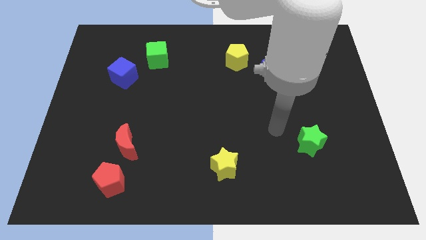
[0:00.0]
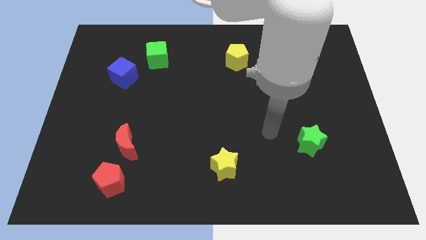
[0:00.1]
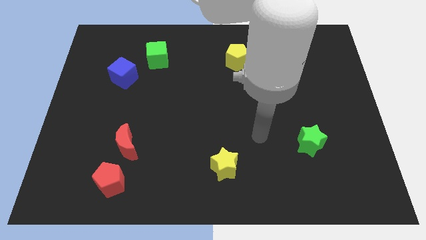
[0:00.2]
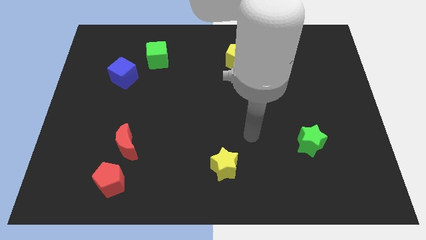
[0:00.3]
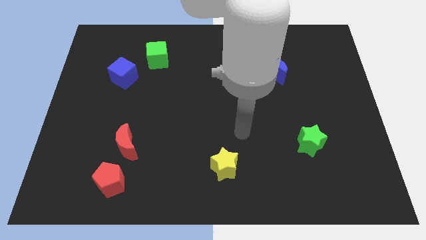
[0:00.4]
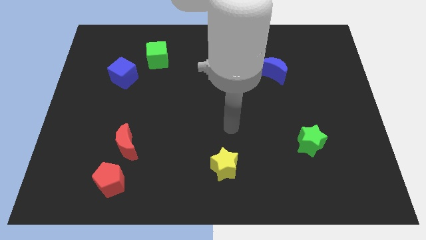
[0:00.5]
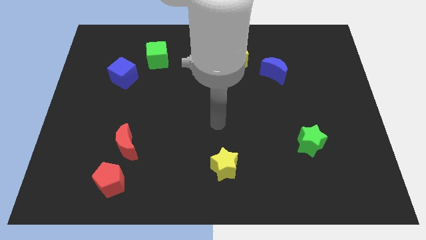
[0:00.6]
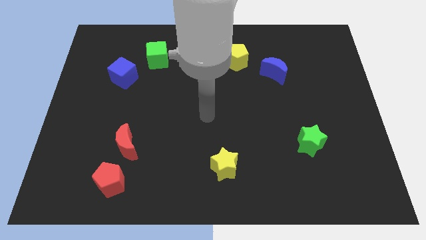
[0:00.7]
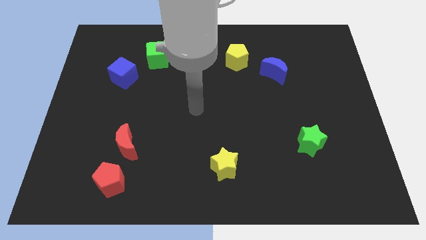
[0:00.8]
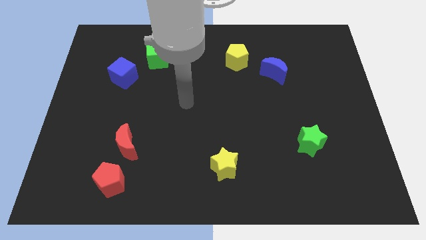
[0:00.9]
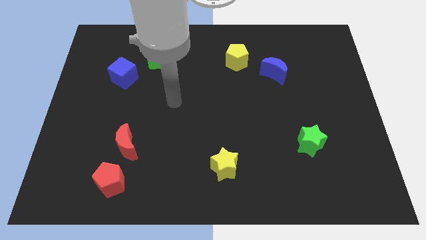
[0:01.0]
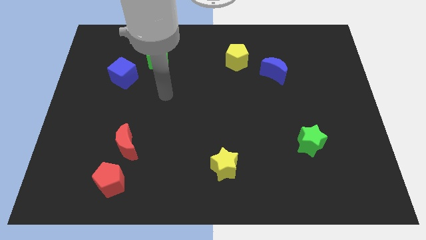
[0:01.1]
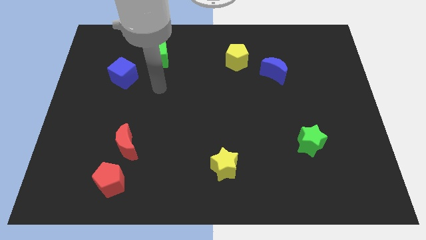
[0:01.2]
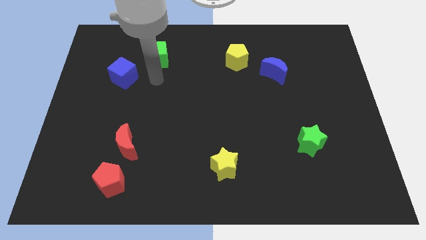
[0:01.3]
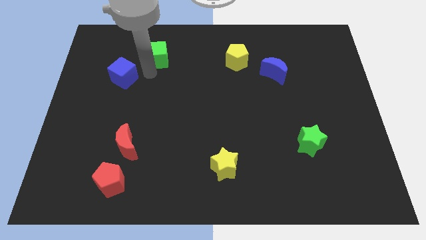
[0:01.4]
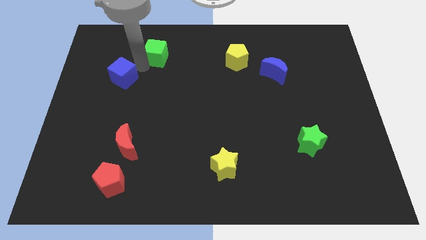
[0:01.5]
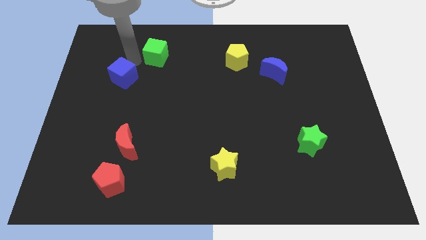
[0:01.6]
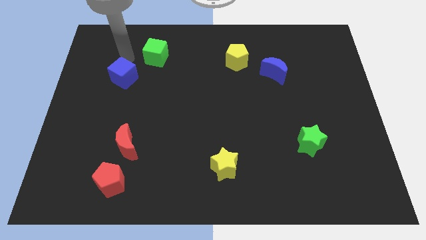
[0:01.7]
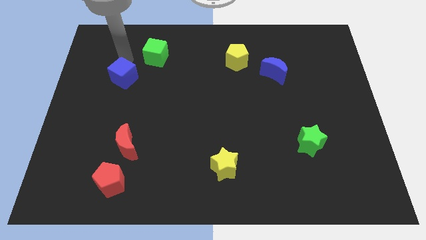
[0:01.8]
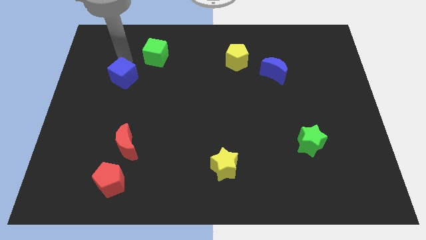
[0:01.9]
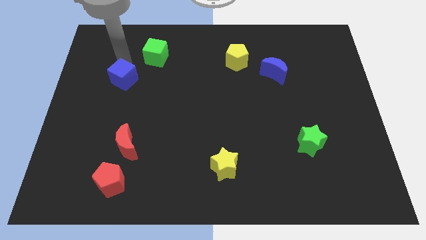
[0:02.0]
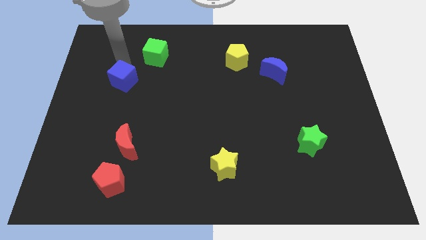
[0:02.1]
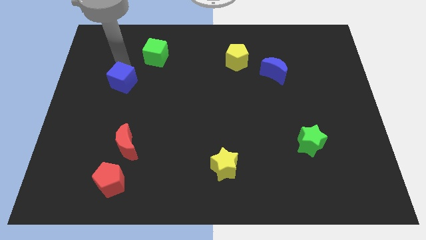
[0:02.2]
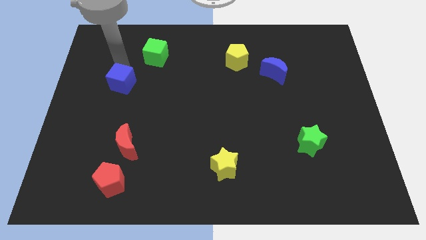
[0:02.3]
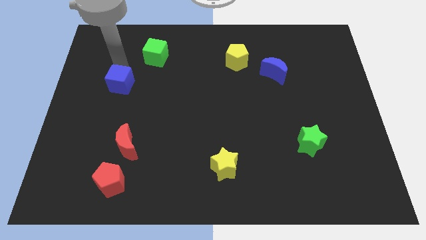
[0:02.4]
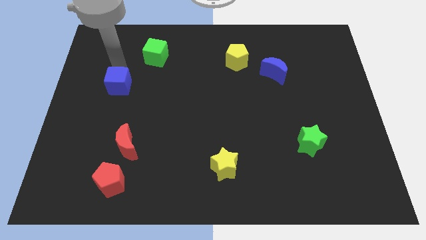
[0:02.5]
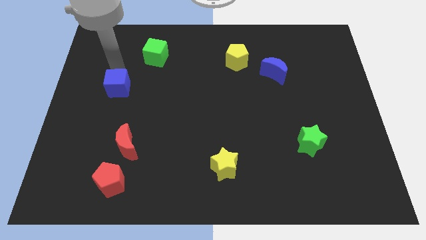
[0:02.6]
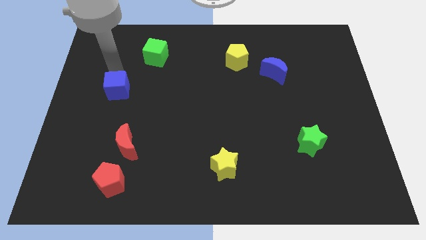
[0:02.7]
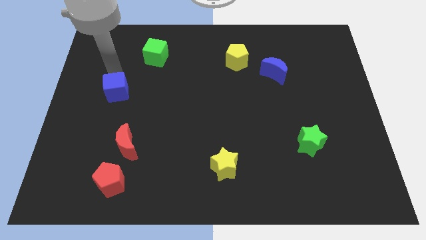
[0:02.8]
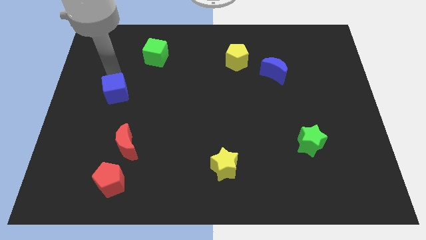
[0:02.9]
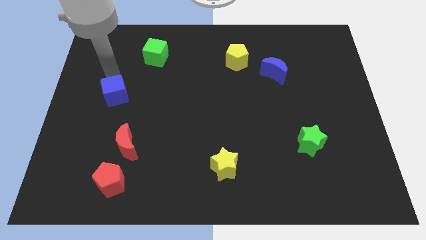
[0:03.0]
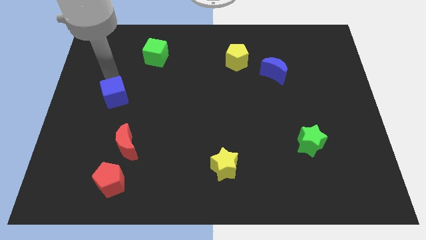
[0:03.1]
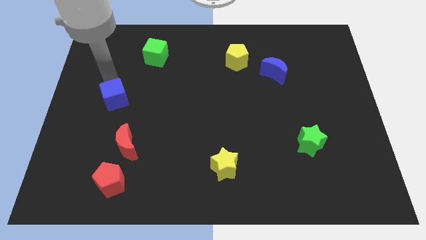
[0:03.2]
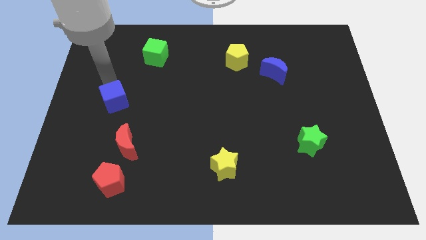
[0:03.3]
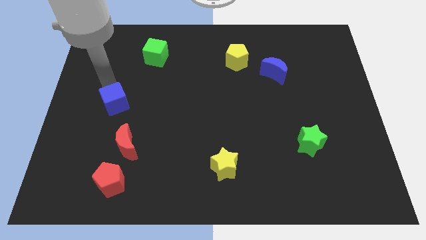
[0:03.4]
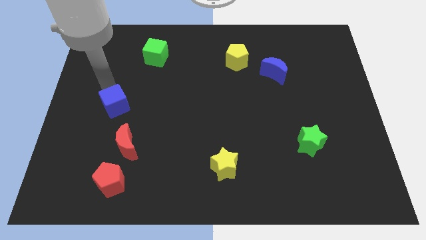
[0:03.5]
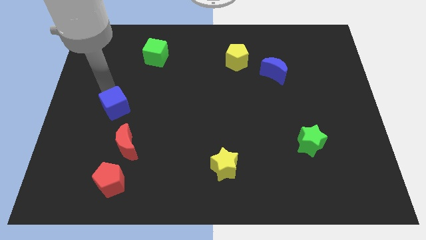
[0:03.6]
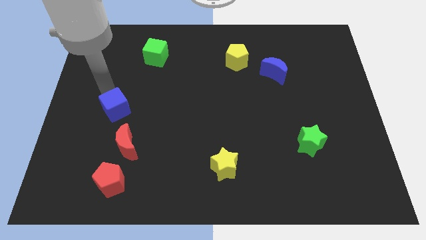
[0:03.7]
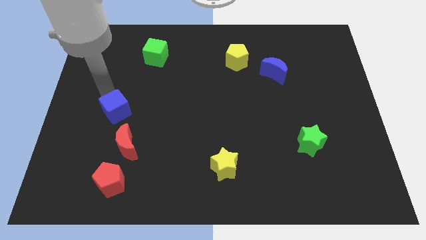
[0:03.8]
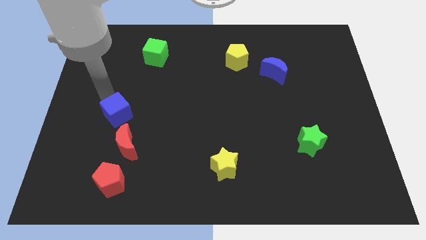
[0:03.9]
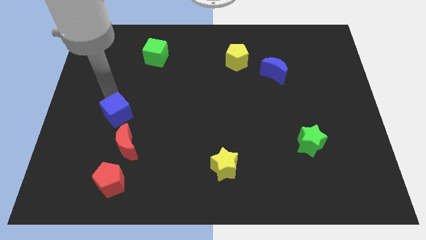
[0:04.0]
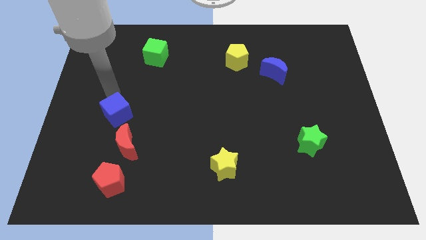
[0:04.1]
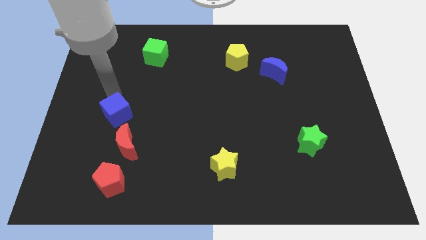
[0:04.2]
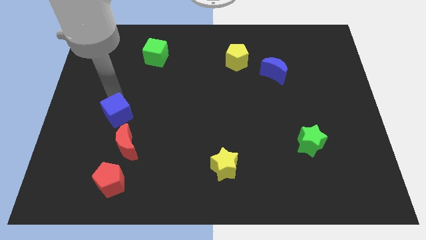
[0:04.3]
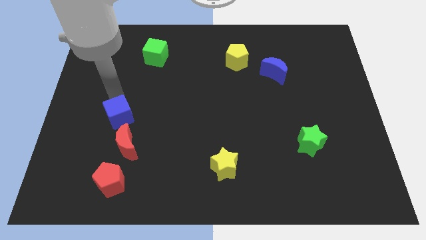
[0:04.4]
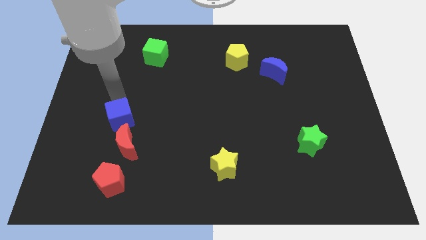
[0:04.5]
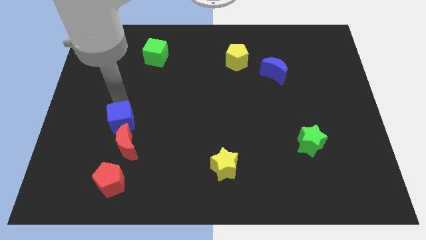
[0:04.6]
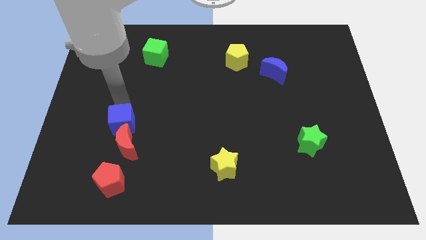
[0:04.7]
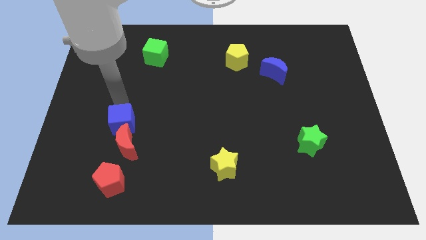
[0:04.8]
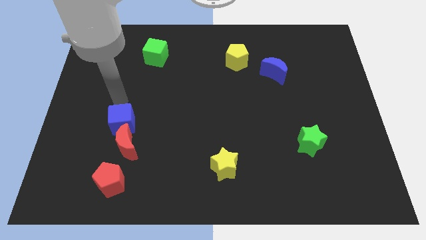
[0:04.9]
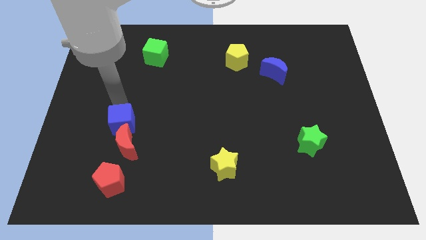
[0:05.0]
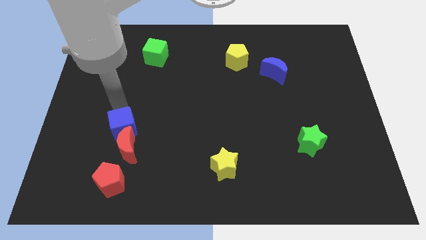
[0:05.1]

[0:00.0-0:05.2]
slide the blue cube close to the red moon

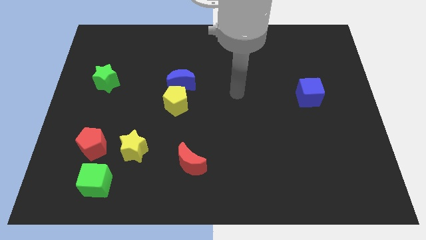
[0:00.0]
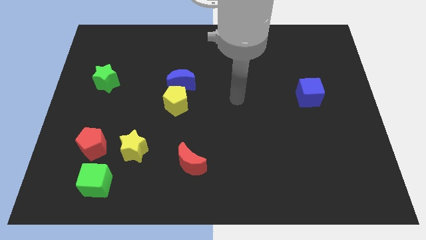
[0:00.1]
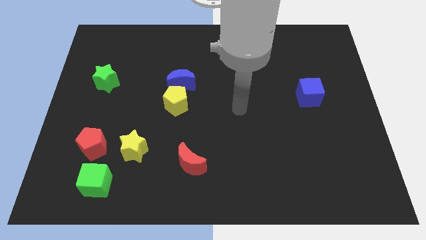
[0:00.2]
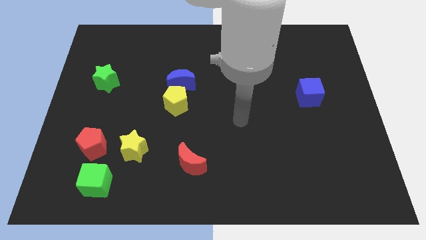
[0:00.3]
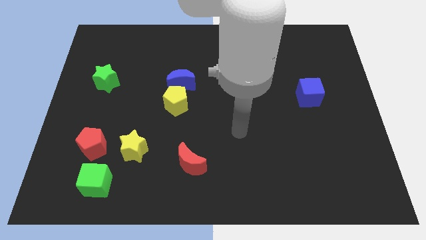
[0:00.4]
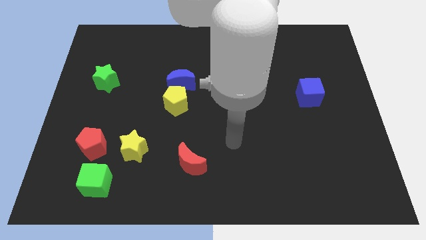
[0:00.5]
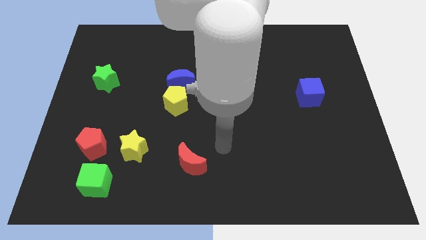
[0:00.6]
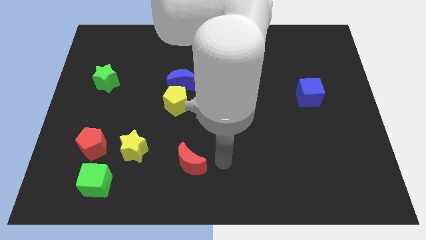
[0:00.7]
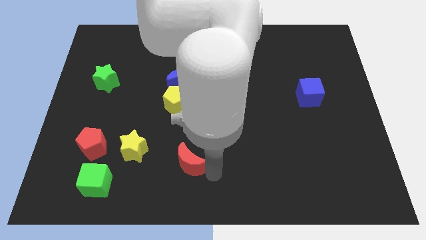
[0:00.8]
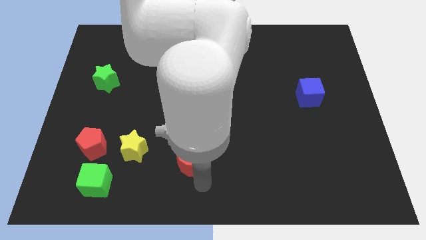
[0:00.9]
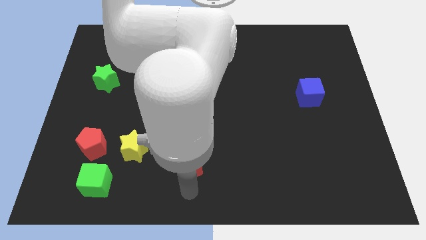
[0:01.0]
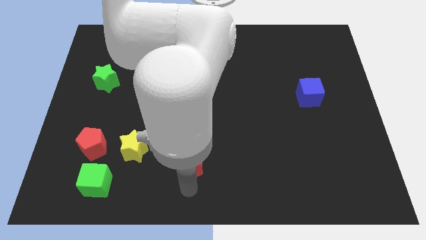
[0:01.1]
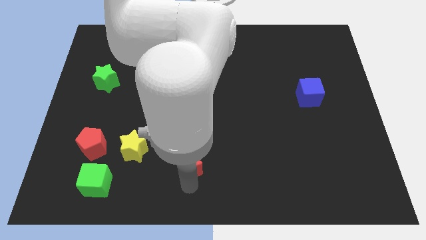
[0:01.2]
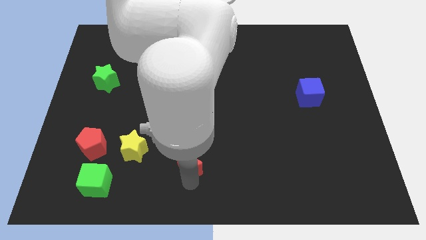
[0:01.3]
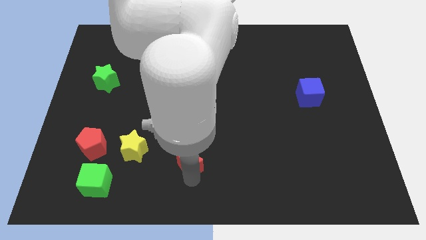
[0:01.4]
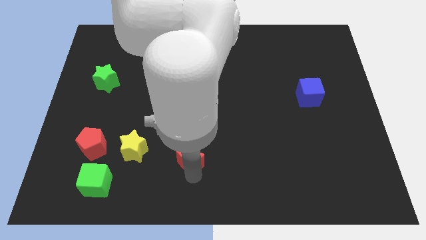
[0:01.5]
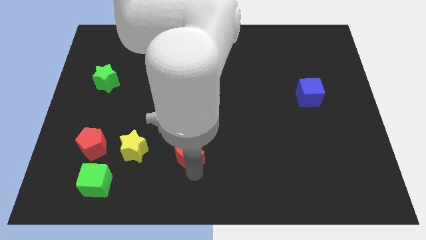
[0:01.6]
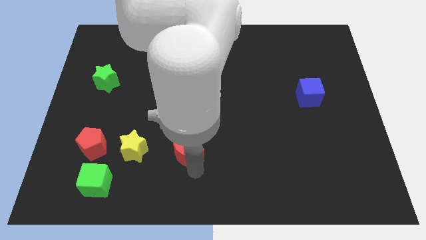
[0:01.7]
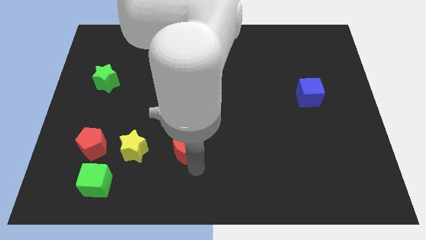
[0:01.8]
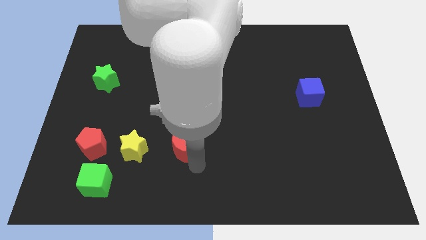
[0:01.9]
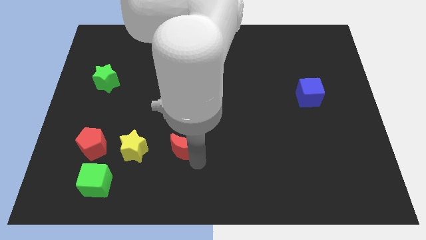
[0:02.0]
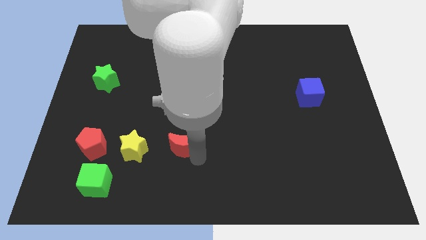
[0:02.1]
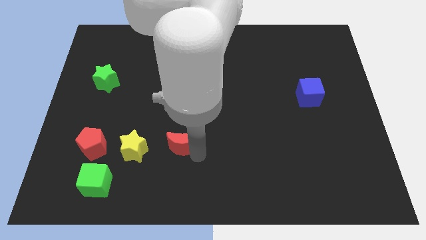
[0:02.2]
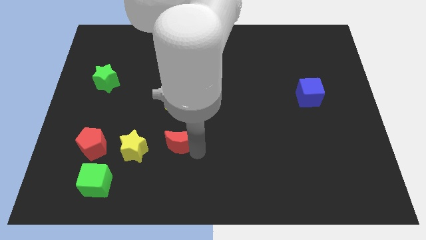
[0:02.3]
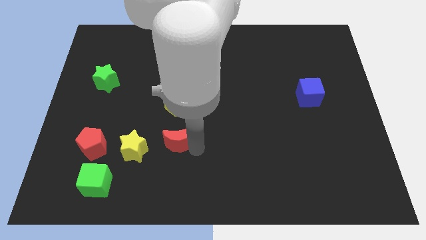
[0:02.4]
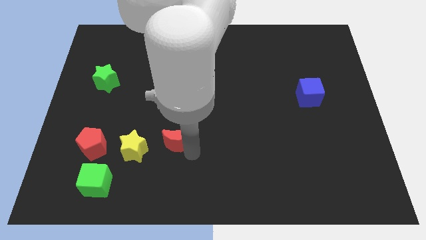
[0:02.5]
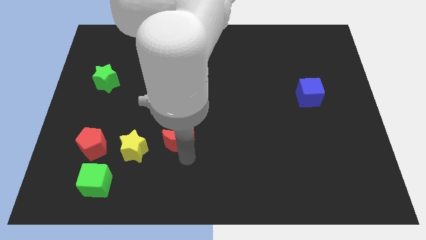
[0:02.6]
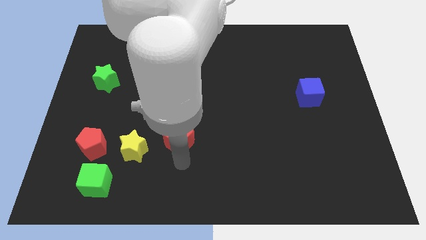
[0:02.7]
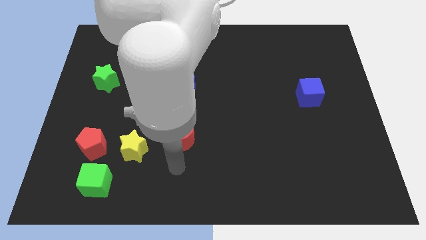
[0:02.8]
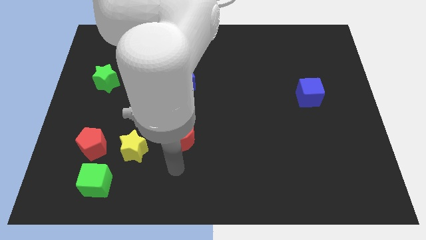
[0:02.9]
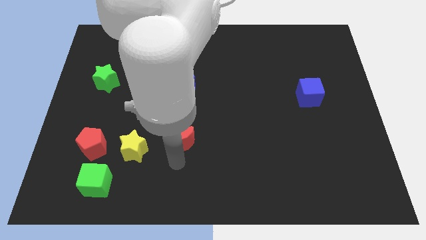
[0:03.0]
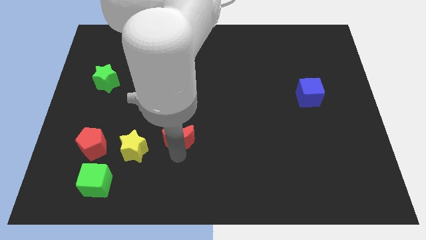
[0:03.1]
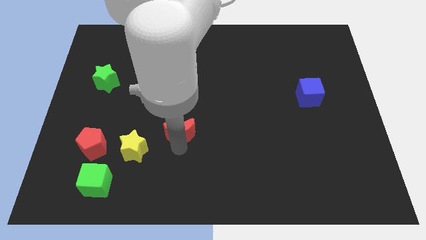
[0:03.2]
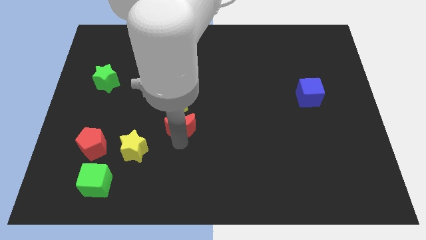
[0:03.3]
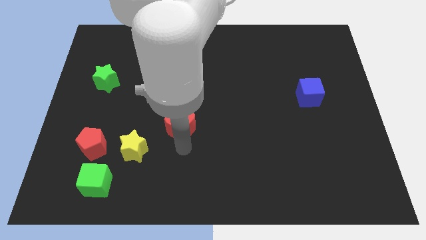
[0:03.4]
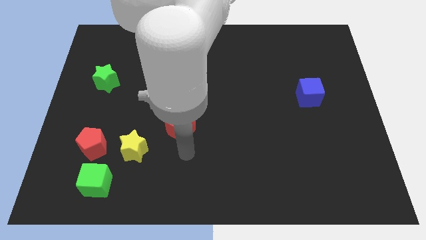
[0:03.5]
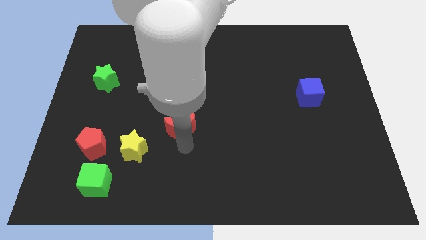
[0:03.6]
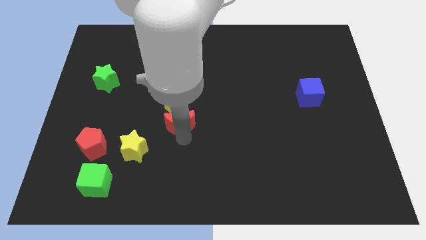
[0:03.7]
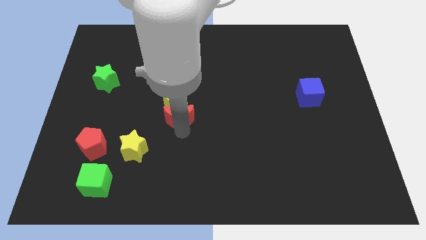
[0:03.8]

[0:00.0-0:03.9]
move the red moon towards the yellow pentagon
